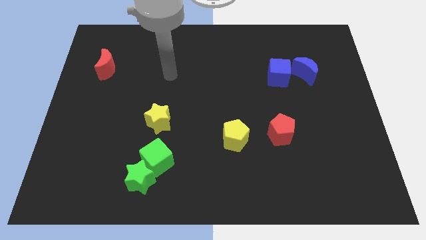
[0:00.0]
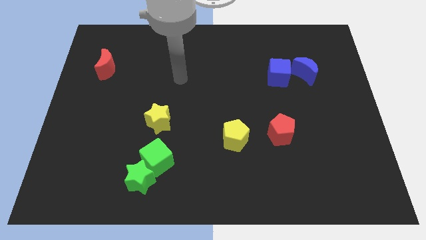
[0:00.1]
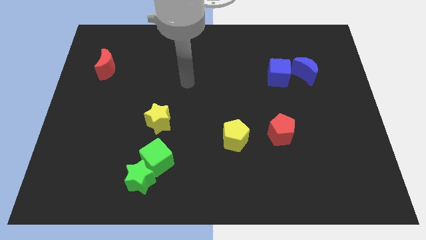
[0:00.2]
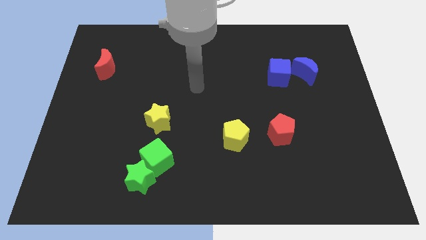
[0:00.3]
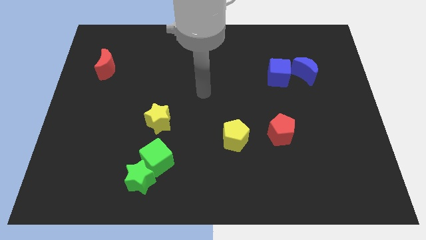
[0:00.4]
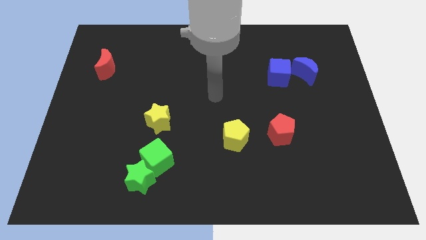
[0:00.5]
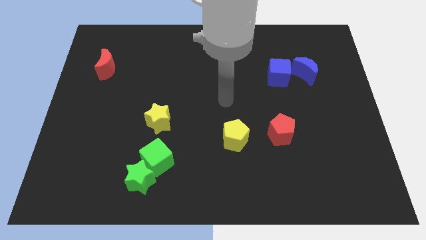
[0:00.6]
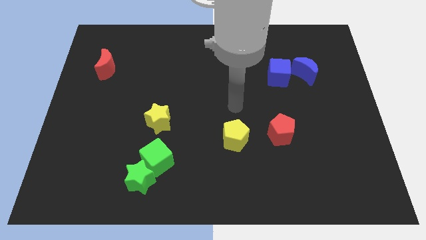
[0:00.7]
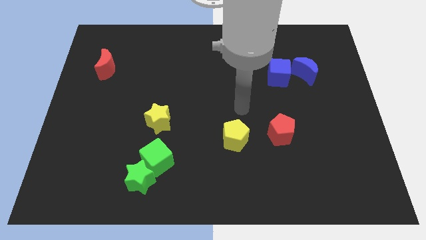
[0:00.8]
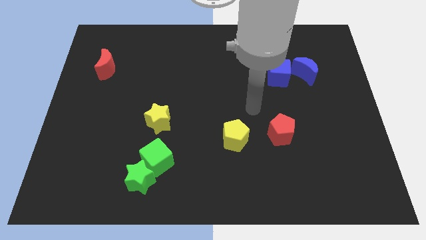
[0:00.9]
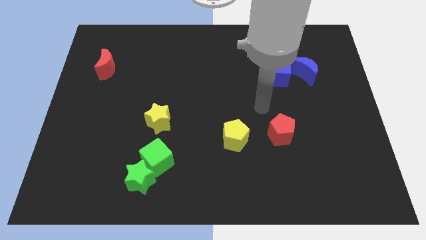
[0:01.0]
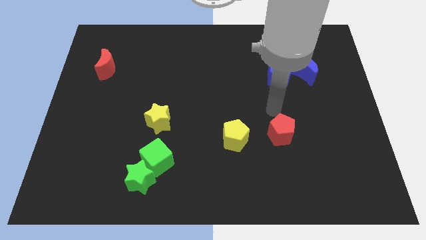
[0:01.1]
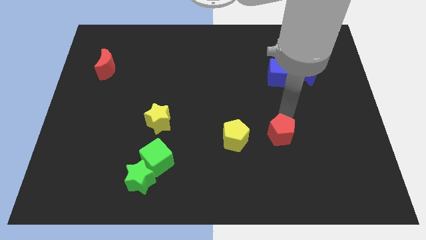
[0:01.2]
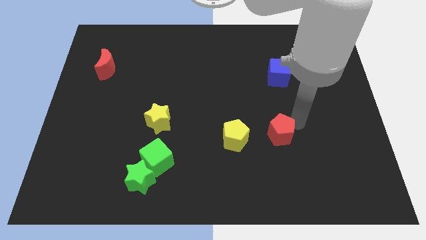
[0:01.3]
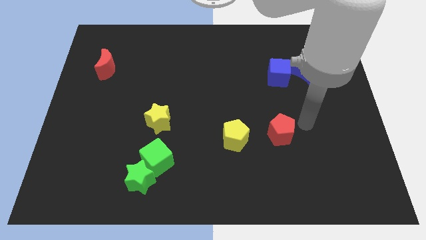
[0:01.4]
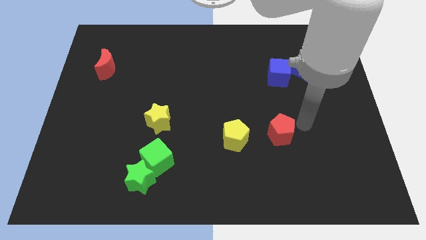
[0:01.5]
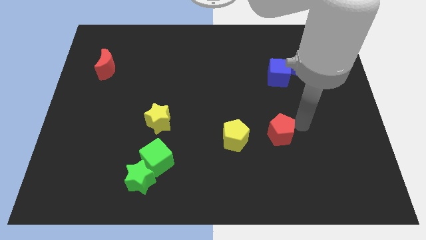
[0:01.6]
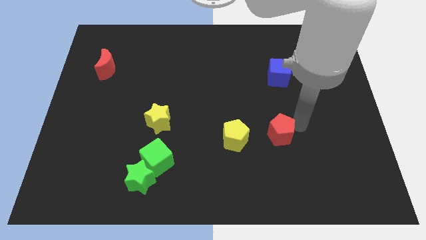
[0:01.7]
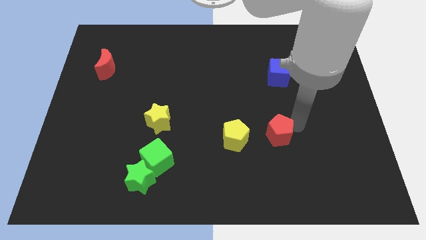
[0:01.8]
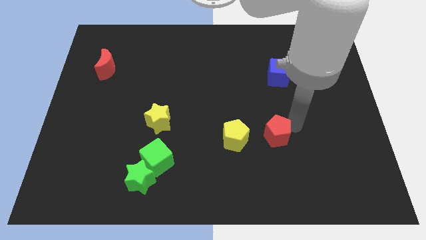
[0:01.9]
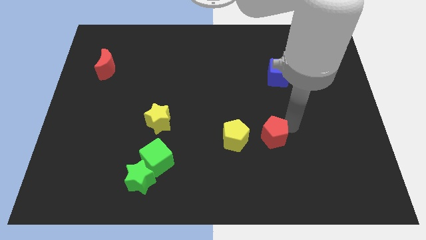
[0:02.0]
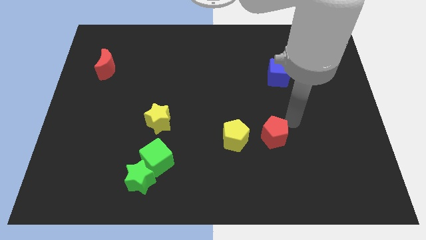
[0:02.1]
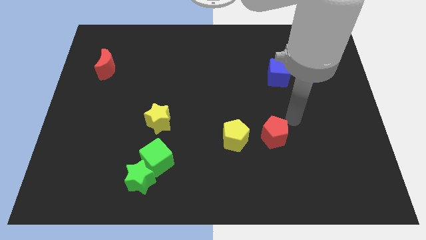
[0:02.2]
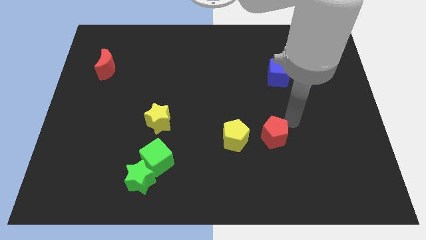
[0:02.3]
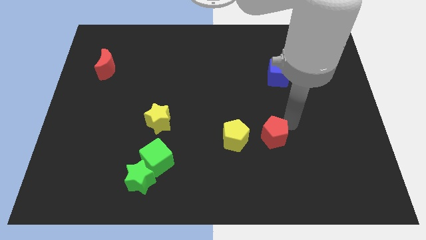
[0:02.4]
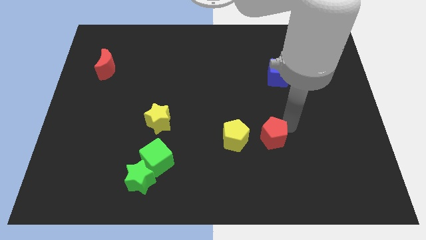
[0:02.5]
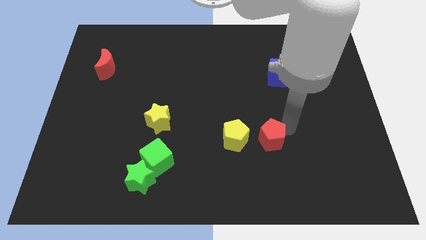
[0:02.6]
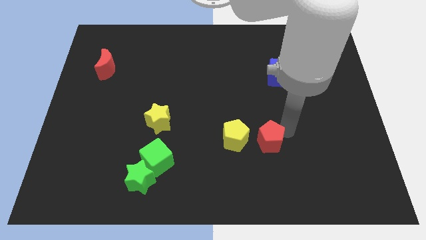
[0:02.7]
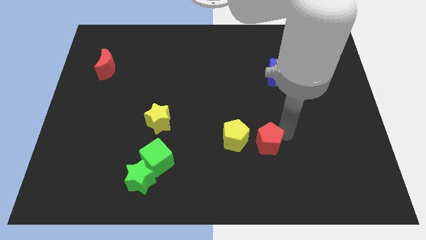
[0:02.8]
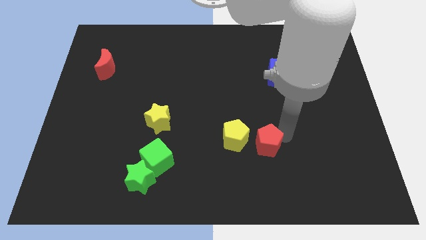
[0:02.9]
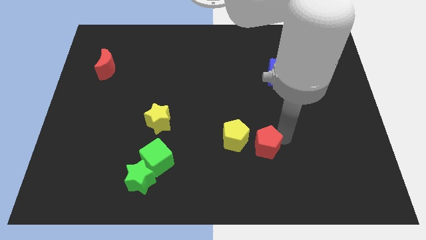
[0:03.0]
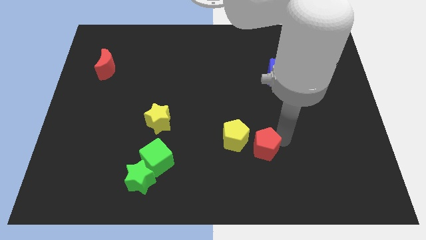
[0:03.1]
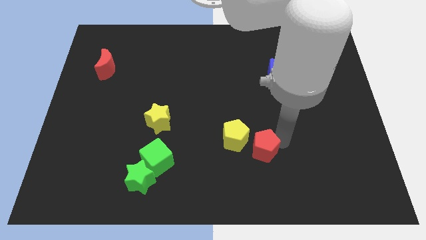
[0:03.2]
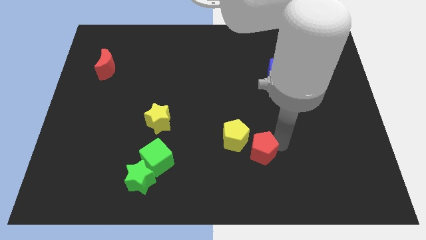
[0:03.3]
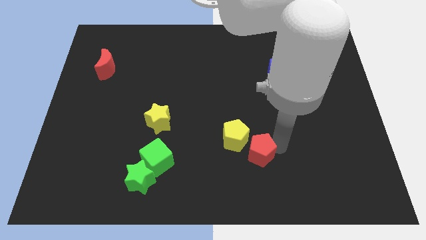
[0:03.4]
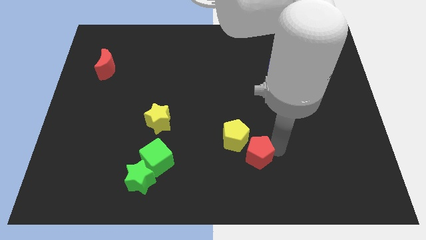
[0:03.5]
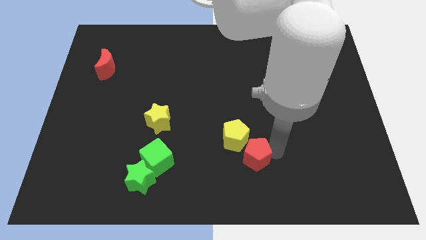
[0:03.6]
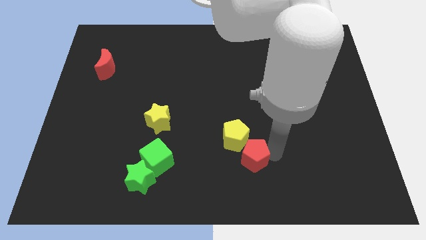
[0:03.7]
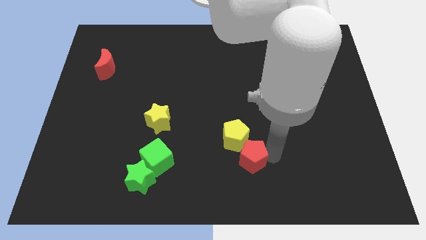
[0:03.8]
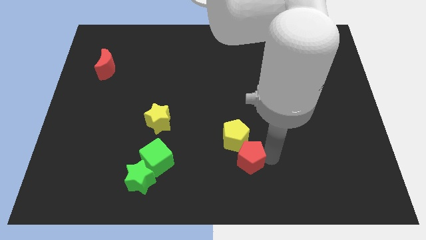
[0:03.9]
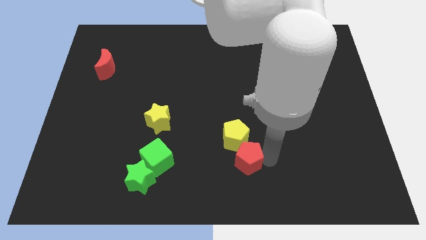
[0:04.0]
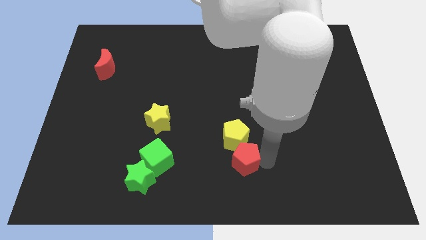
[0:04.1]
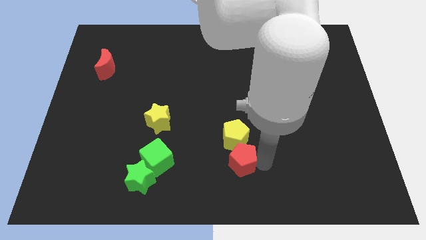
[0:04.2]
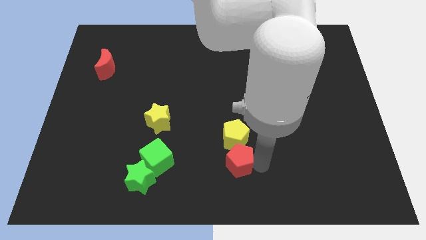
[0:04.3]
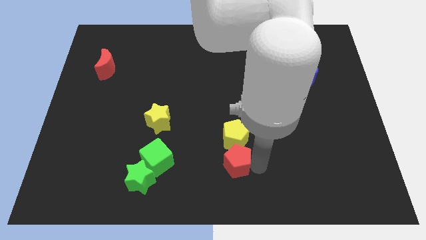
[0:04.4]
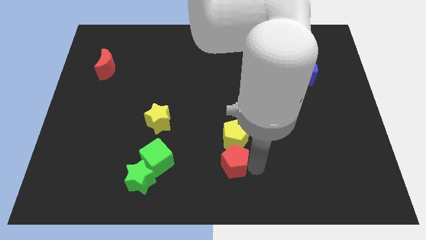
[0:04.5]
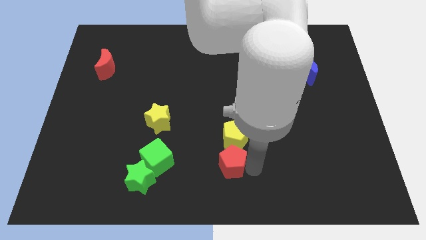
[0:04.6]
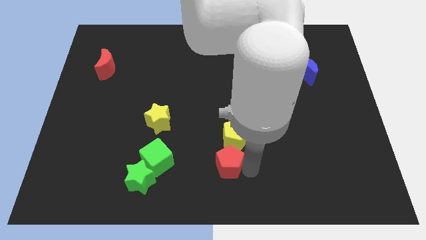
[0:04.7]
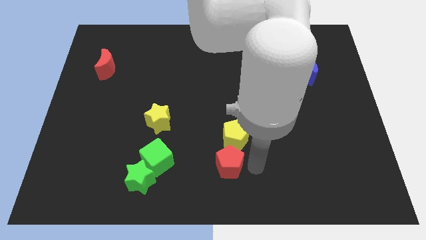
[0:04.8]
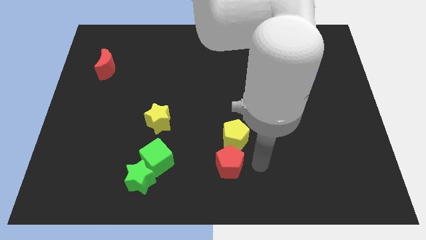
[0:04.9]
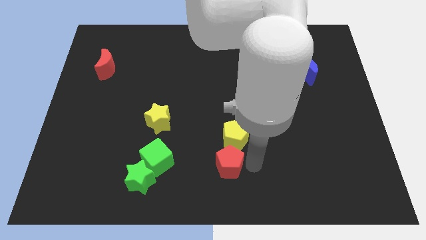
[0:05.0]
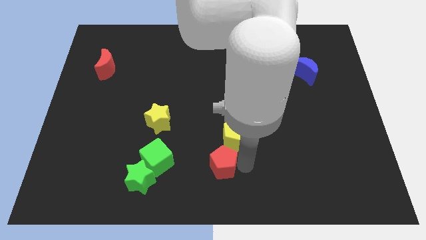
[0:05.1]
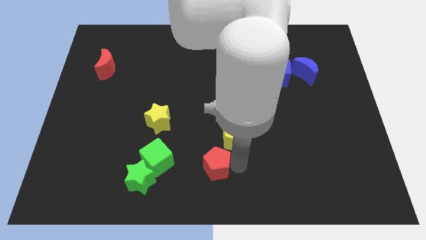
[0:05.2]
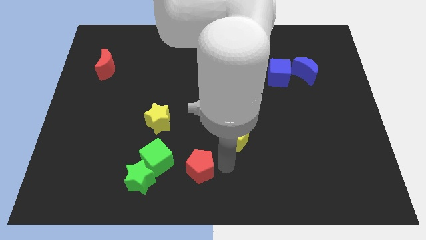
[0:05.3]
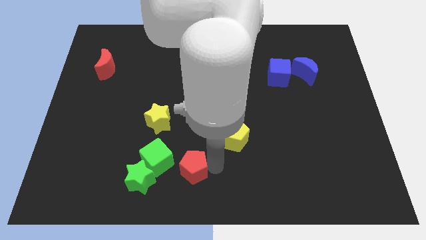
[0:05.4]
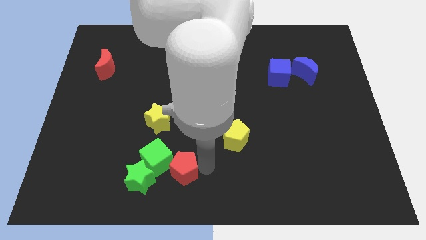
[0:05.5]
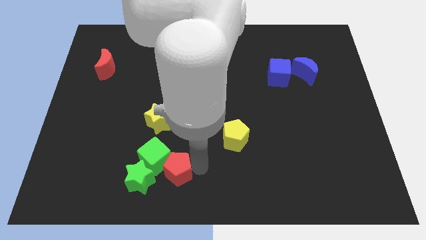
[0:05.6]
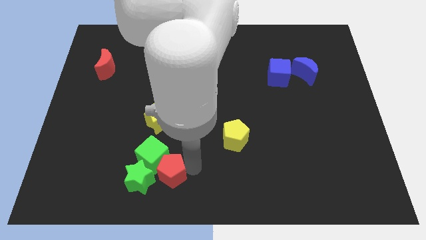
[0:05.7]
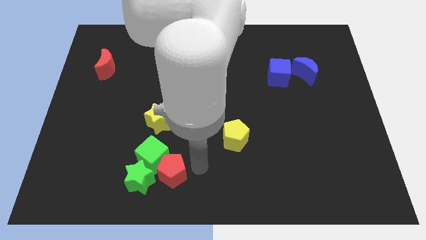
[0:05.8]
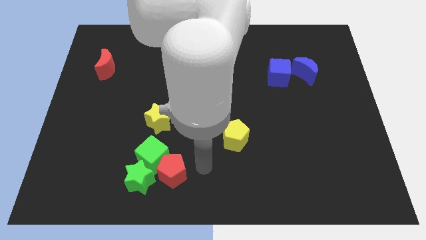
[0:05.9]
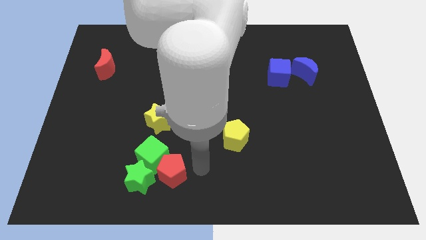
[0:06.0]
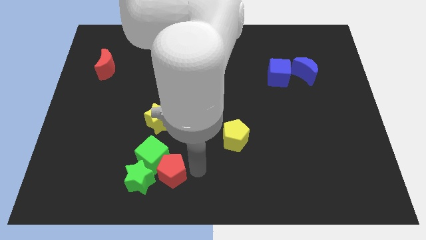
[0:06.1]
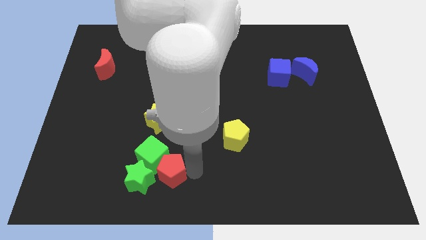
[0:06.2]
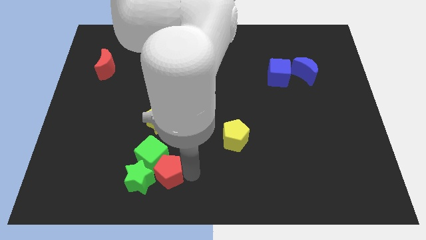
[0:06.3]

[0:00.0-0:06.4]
slide the red pentagon towards the green star

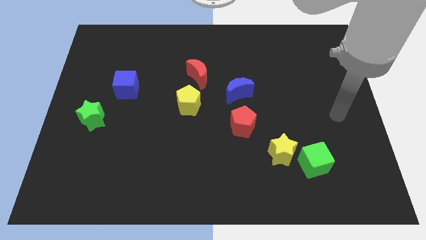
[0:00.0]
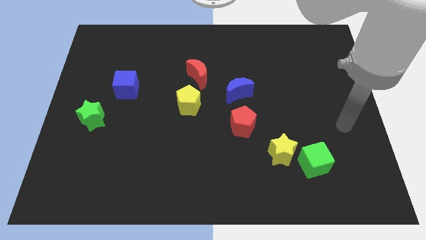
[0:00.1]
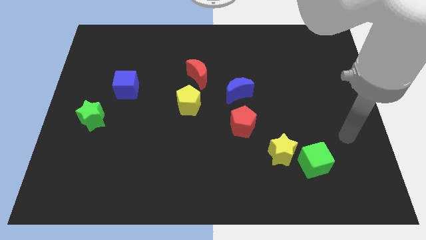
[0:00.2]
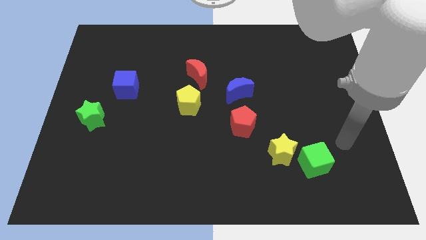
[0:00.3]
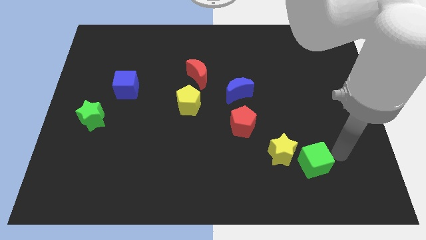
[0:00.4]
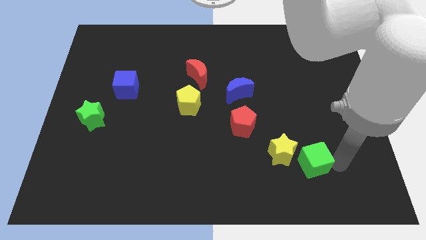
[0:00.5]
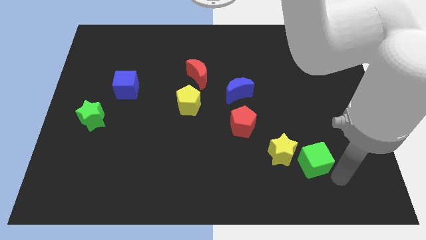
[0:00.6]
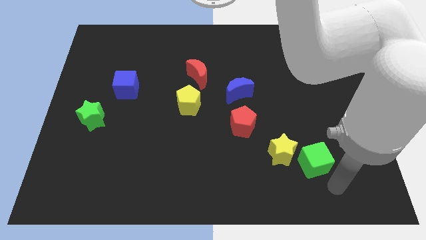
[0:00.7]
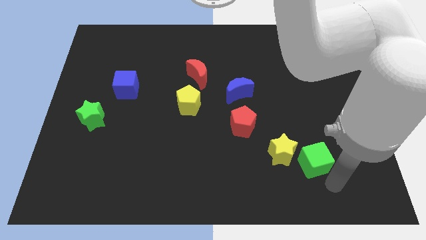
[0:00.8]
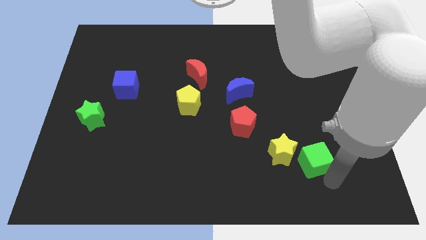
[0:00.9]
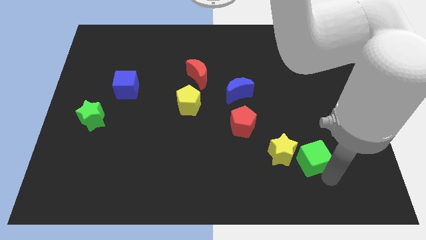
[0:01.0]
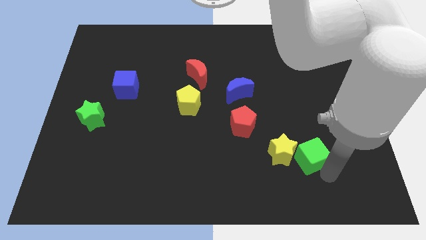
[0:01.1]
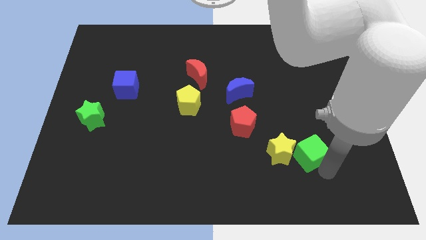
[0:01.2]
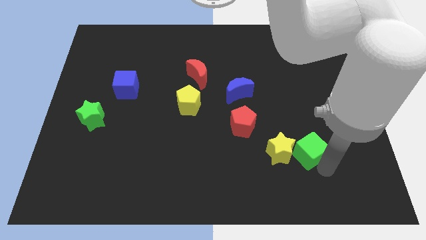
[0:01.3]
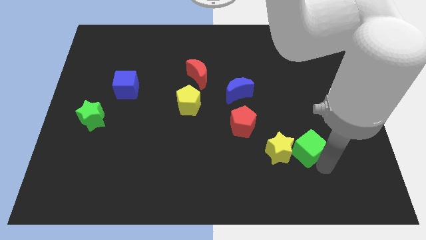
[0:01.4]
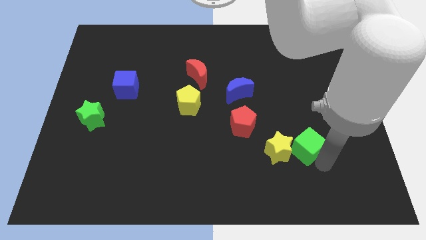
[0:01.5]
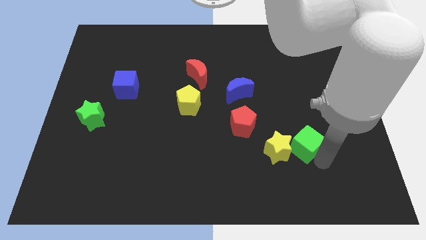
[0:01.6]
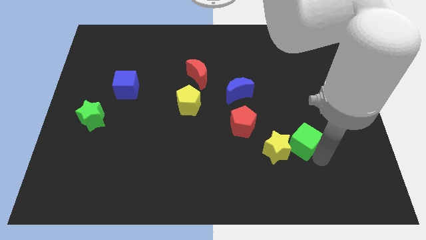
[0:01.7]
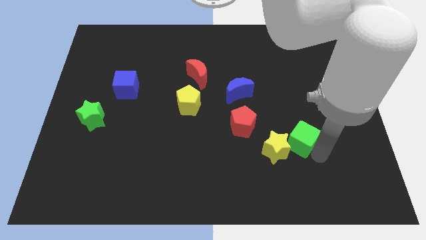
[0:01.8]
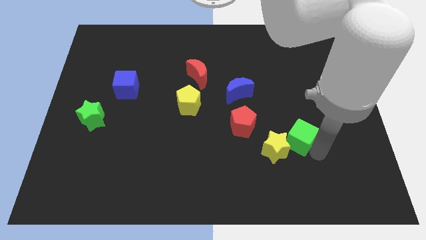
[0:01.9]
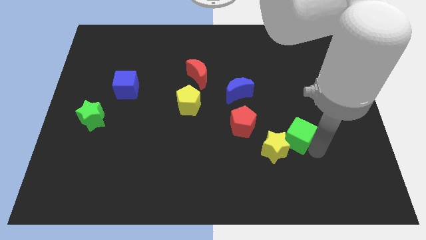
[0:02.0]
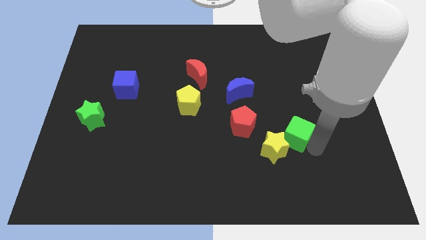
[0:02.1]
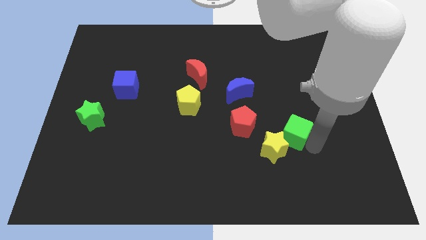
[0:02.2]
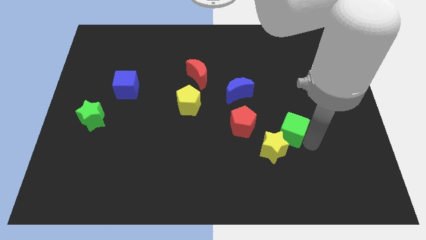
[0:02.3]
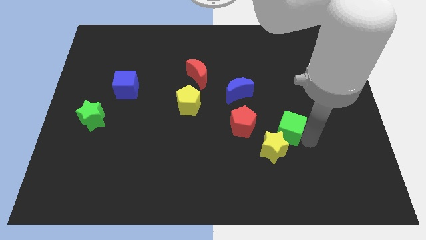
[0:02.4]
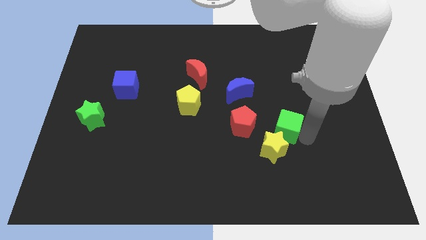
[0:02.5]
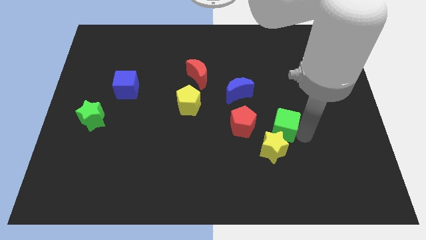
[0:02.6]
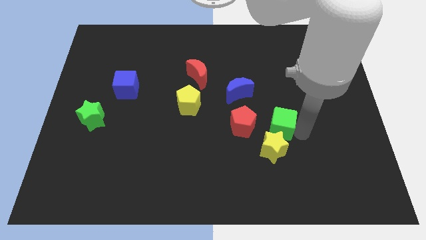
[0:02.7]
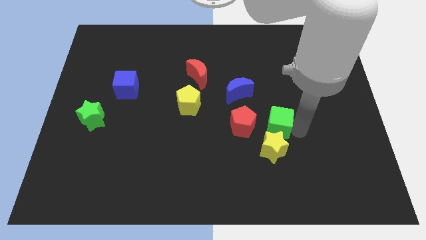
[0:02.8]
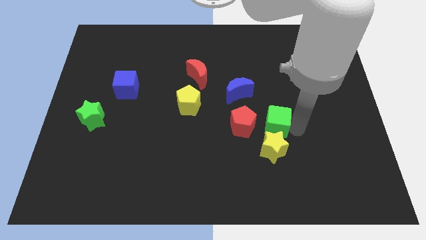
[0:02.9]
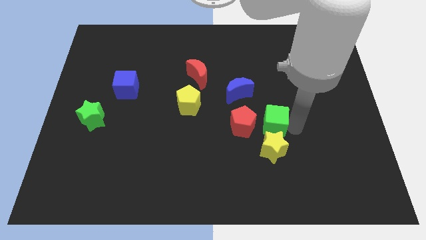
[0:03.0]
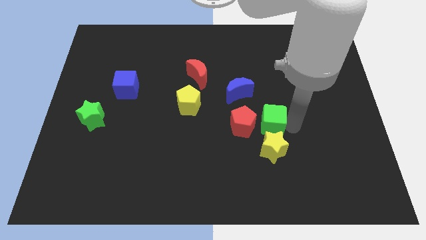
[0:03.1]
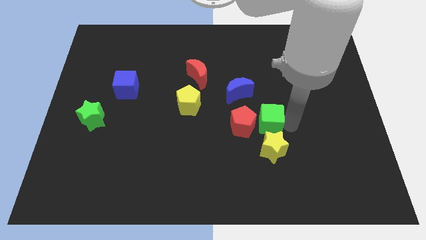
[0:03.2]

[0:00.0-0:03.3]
move the green cube next to the red pentagon
